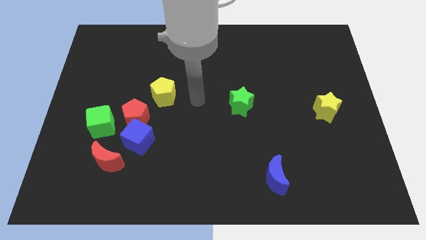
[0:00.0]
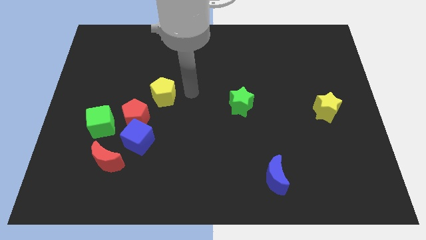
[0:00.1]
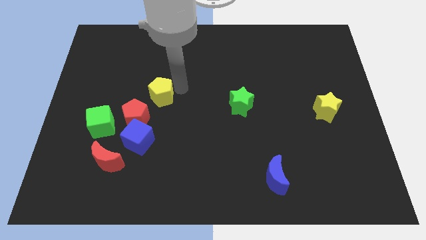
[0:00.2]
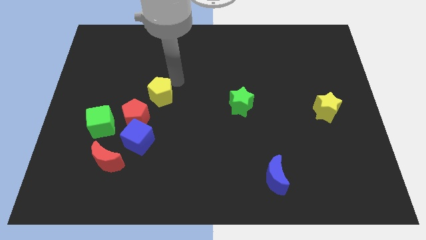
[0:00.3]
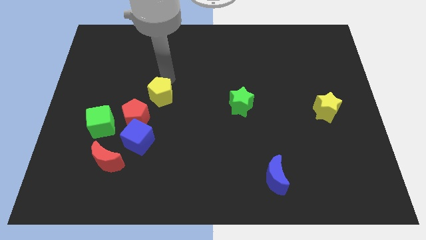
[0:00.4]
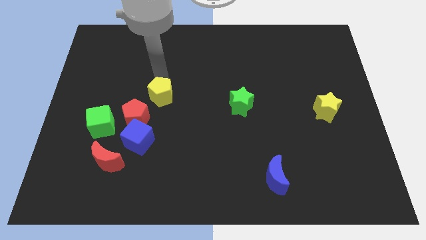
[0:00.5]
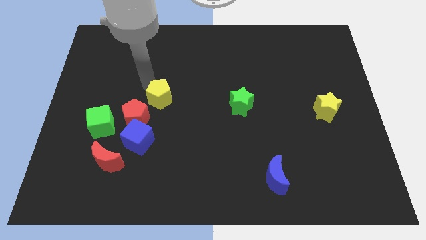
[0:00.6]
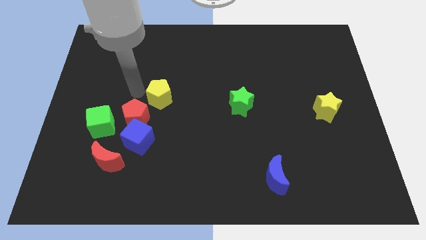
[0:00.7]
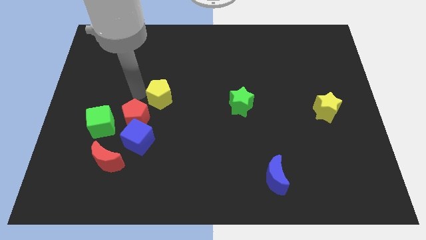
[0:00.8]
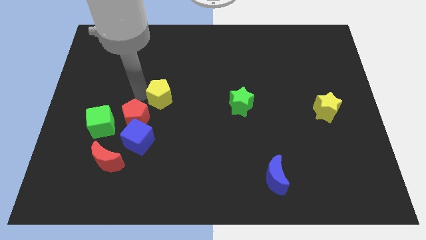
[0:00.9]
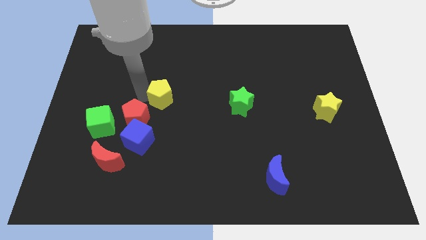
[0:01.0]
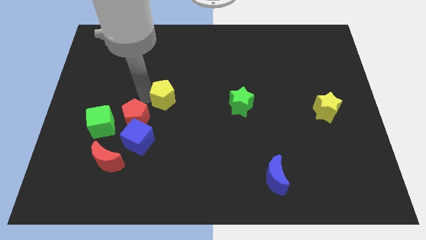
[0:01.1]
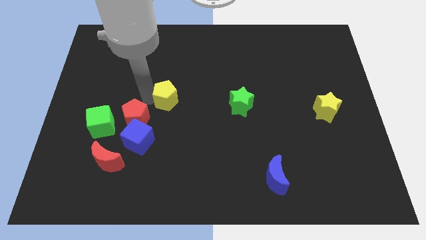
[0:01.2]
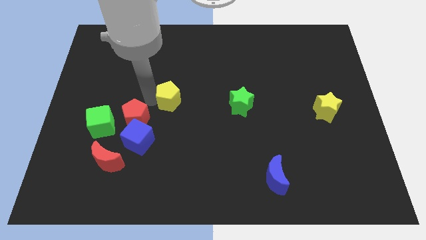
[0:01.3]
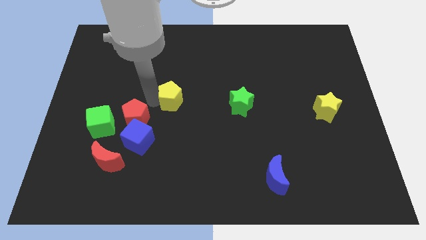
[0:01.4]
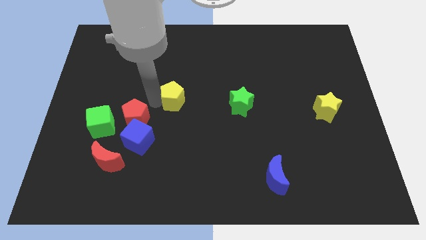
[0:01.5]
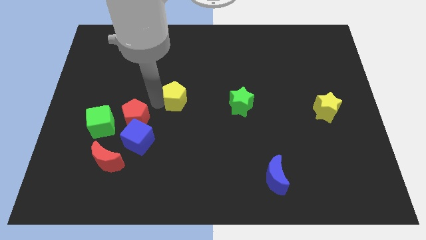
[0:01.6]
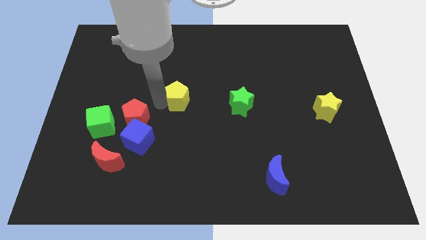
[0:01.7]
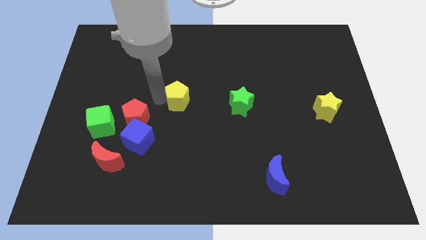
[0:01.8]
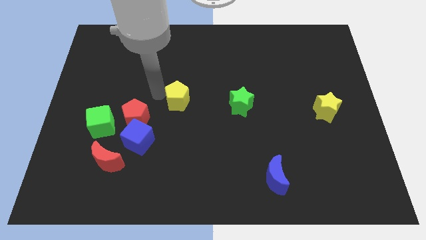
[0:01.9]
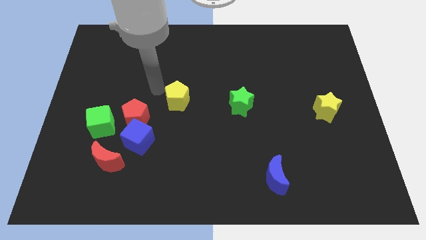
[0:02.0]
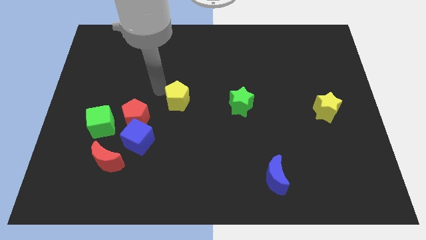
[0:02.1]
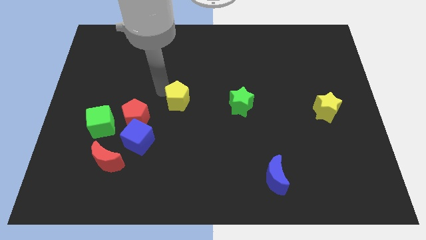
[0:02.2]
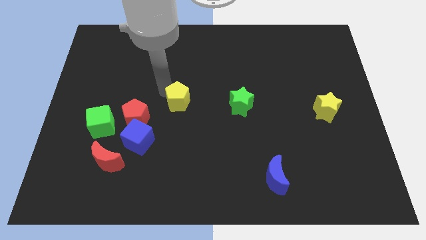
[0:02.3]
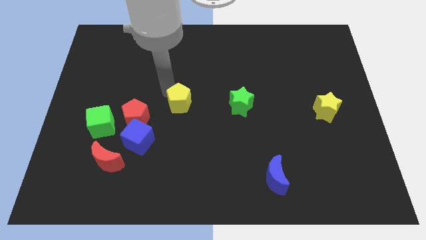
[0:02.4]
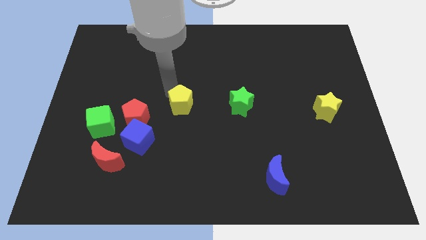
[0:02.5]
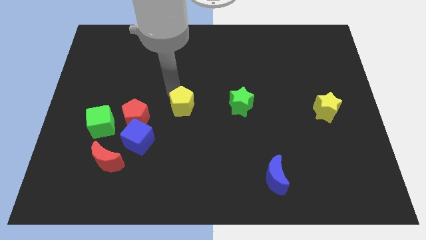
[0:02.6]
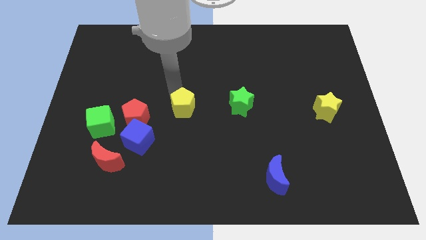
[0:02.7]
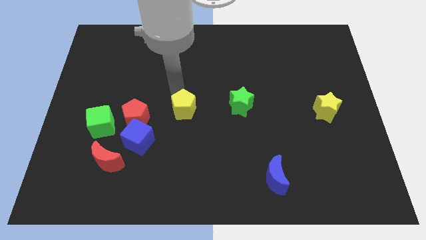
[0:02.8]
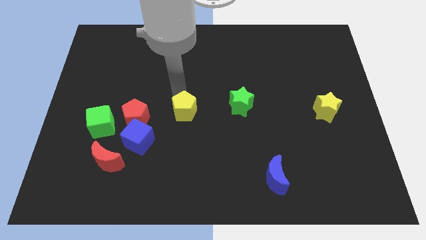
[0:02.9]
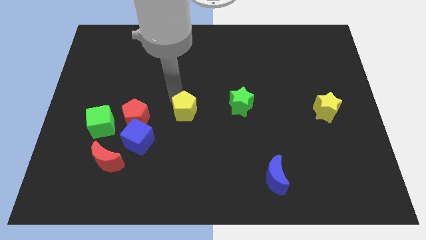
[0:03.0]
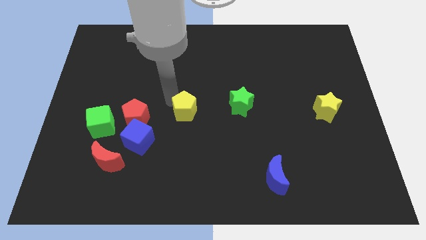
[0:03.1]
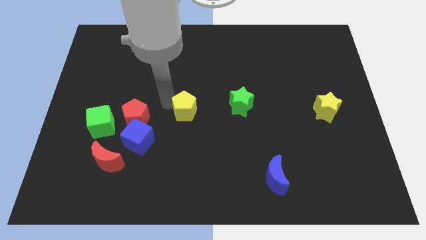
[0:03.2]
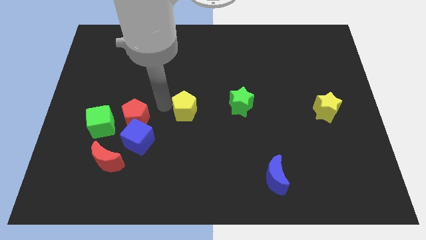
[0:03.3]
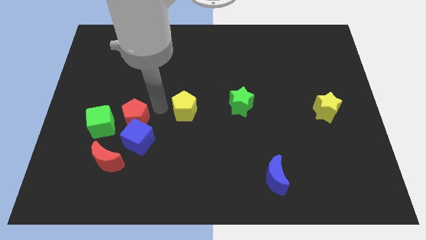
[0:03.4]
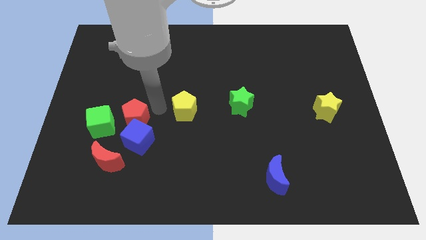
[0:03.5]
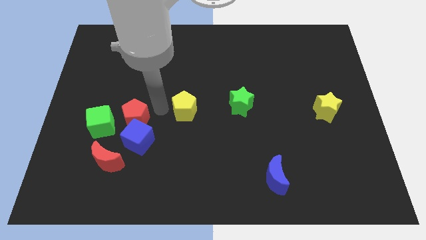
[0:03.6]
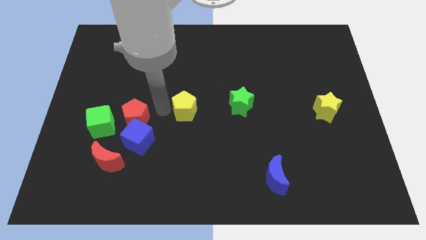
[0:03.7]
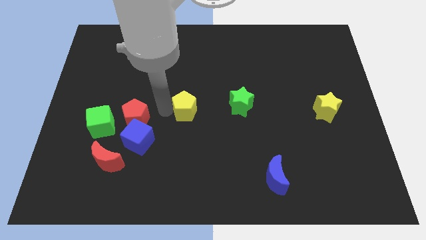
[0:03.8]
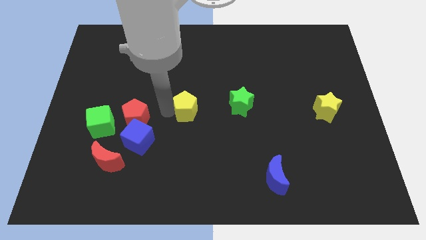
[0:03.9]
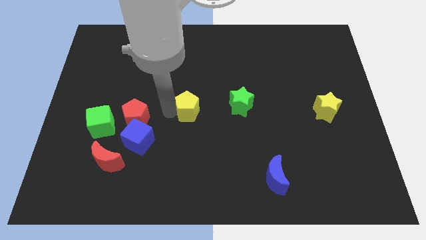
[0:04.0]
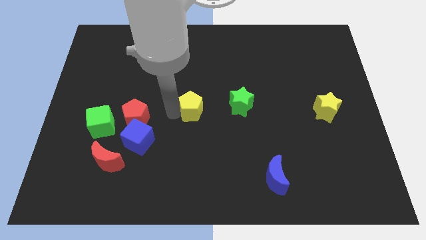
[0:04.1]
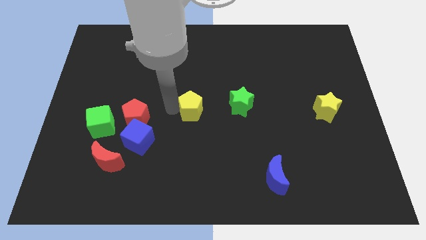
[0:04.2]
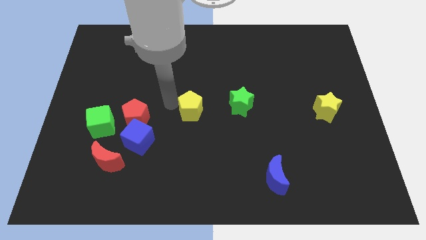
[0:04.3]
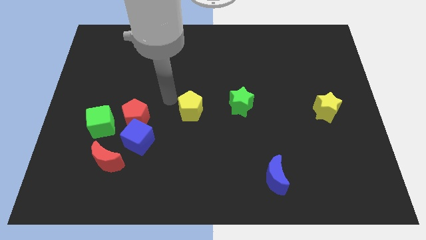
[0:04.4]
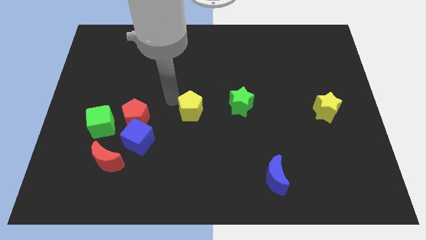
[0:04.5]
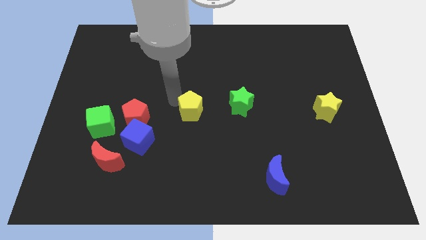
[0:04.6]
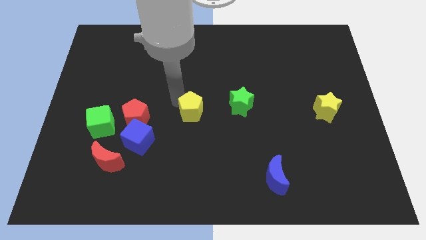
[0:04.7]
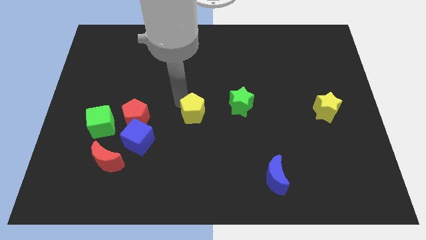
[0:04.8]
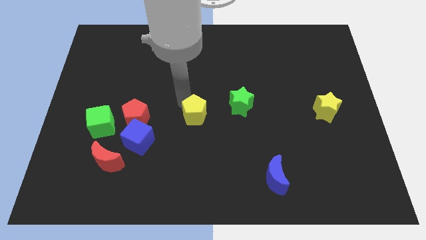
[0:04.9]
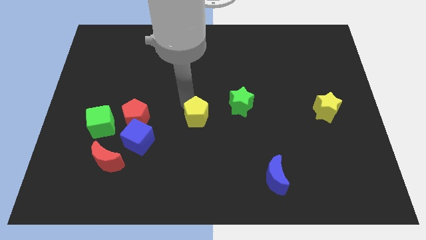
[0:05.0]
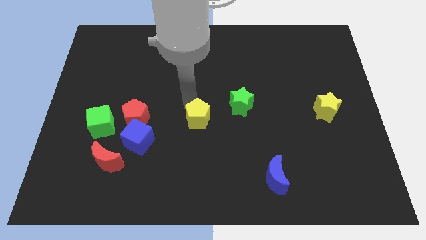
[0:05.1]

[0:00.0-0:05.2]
push the yellow pentagon to the bottom left side of the green star

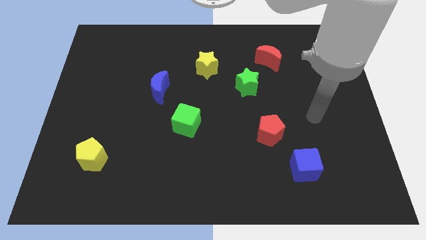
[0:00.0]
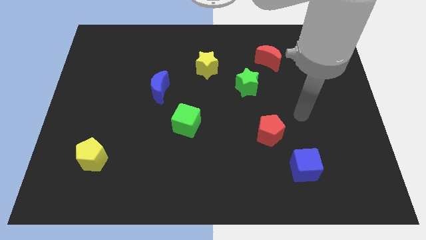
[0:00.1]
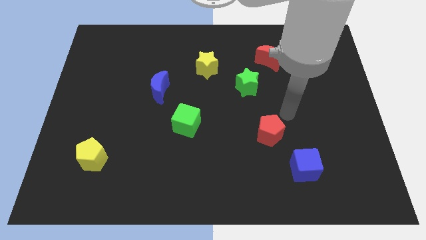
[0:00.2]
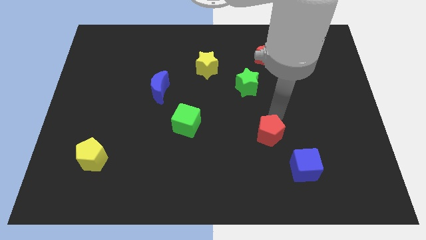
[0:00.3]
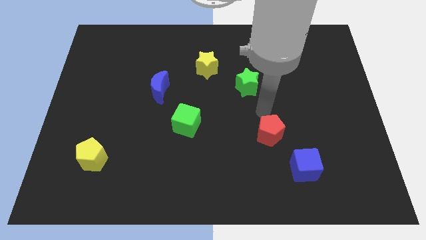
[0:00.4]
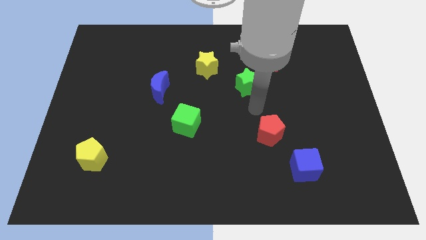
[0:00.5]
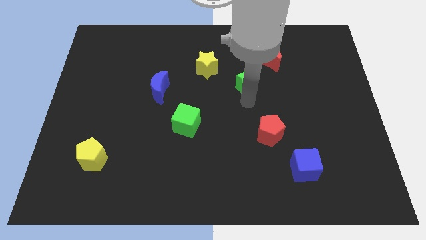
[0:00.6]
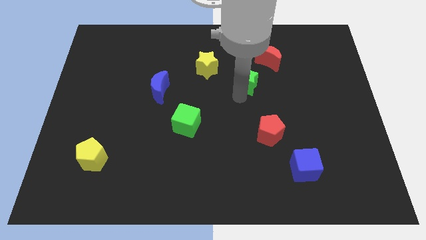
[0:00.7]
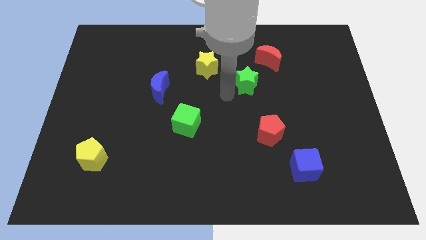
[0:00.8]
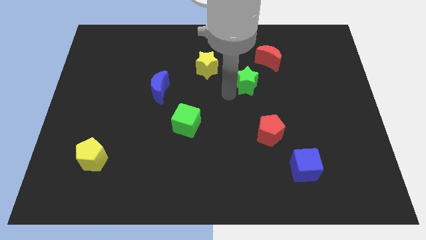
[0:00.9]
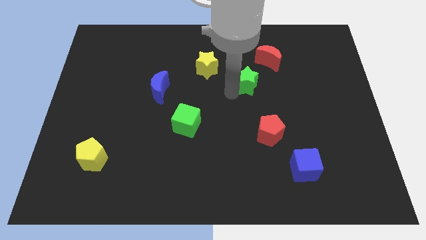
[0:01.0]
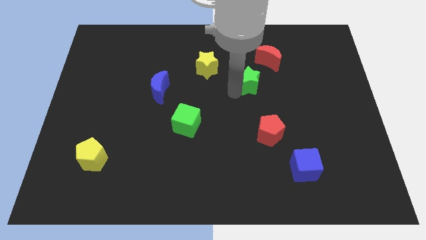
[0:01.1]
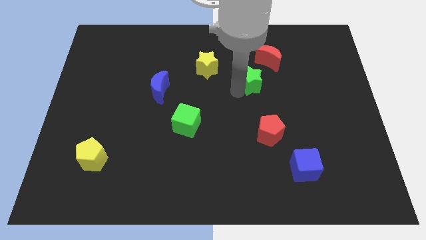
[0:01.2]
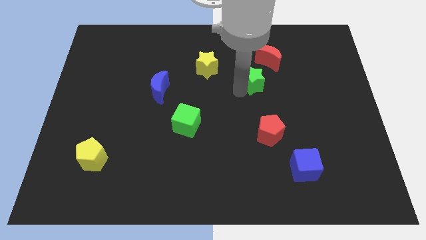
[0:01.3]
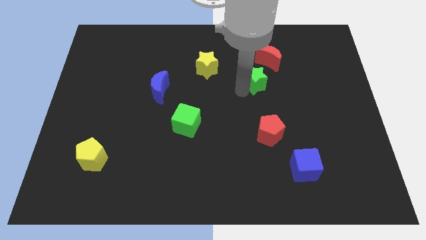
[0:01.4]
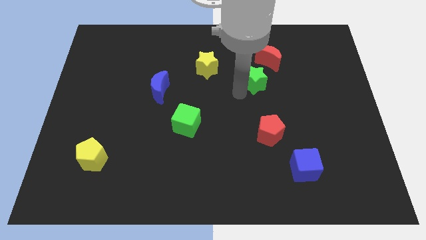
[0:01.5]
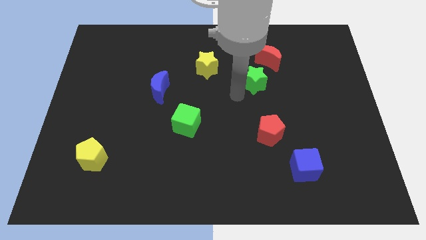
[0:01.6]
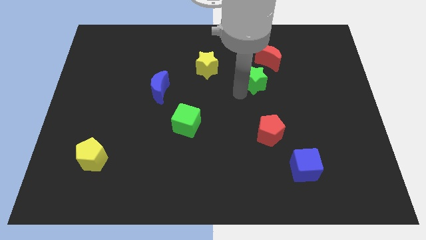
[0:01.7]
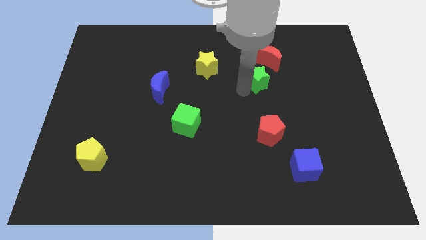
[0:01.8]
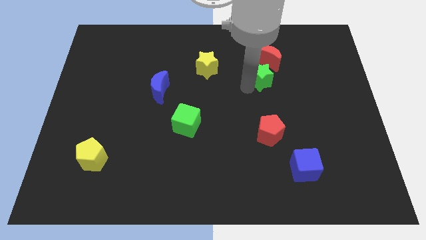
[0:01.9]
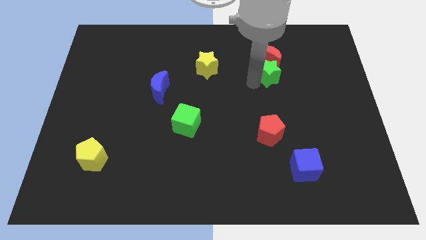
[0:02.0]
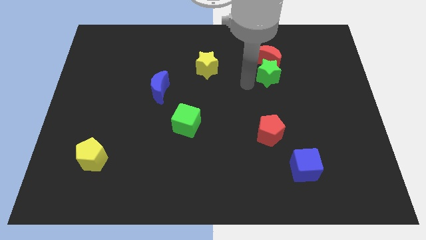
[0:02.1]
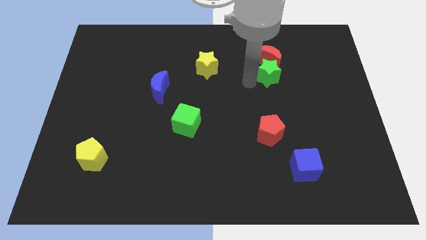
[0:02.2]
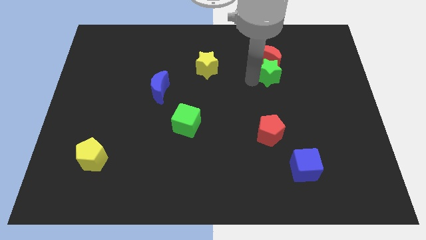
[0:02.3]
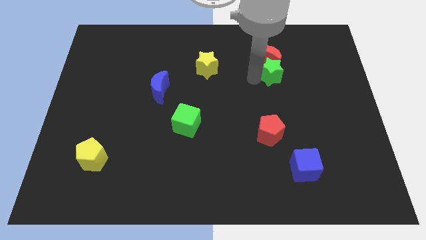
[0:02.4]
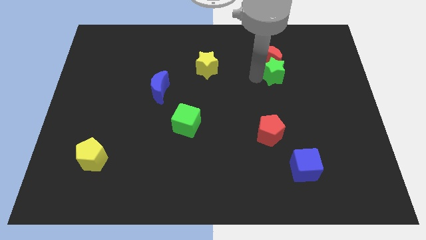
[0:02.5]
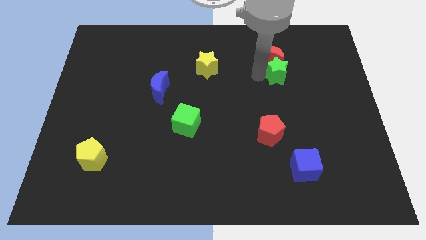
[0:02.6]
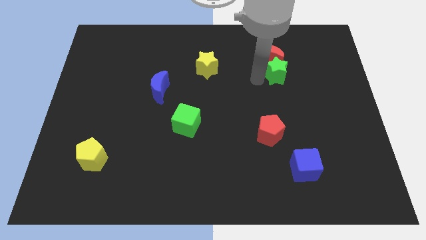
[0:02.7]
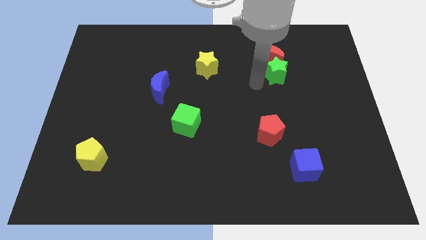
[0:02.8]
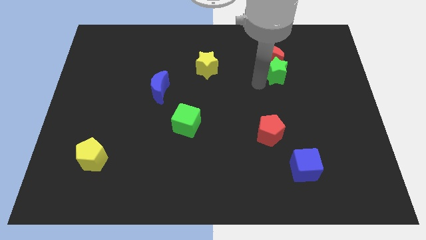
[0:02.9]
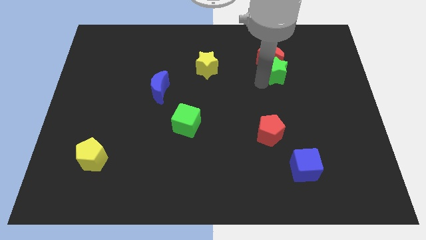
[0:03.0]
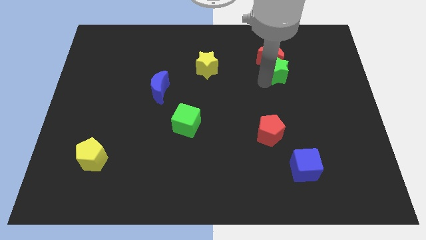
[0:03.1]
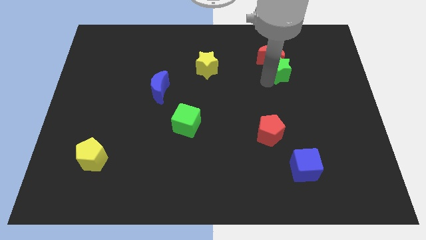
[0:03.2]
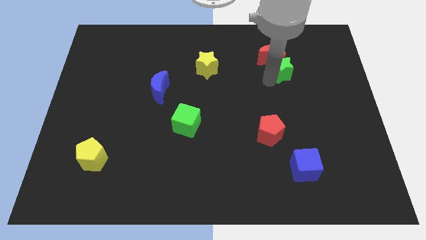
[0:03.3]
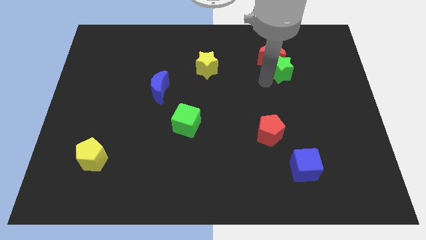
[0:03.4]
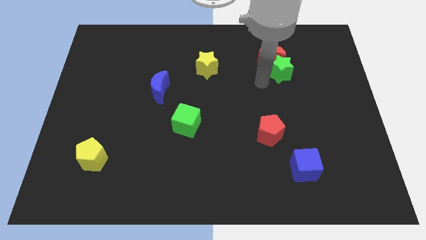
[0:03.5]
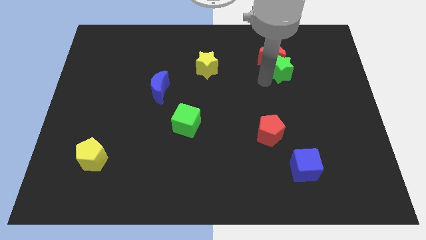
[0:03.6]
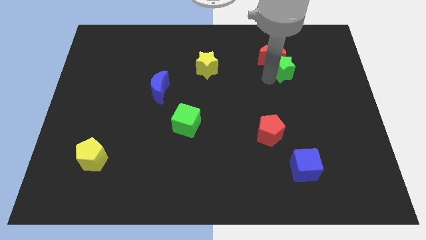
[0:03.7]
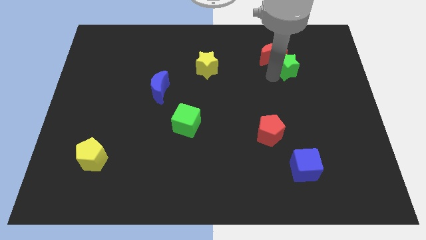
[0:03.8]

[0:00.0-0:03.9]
put the green star to the right of the red moon
